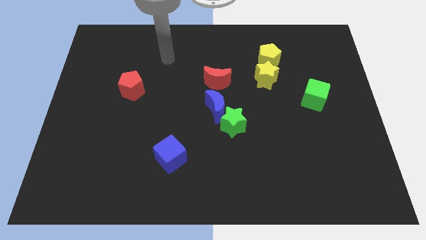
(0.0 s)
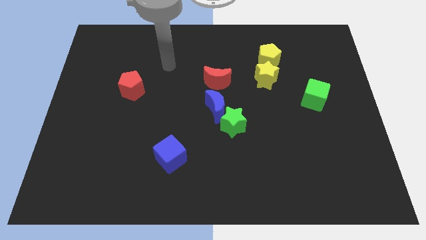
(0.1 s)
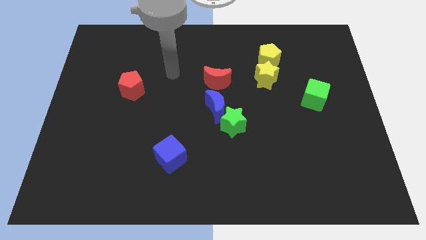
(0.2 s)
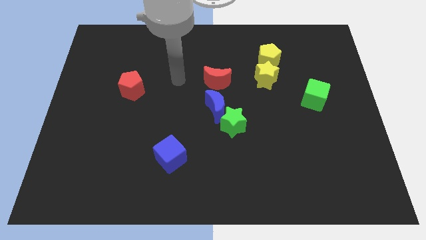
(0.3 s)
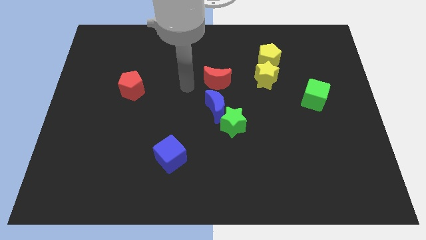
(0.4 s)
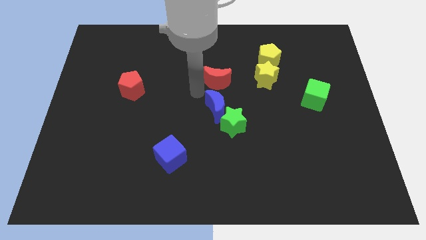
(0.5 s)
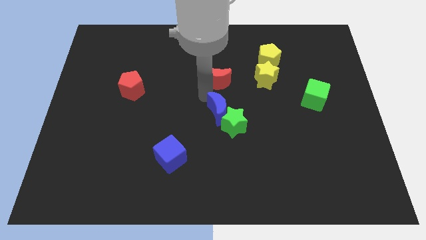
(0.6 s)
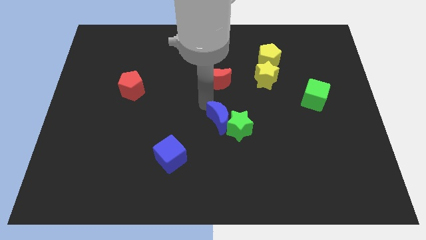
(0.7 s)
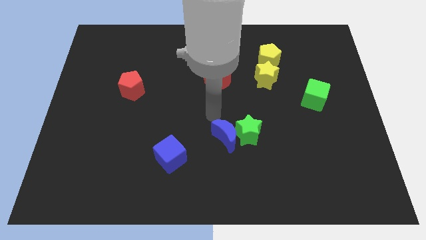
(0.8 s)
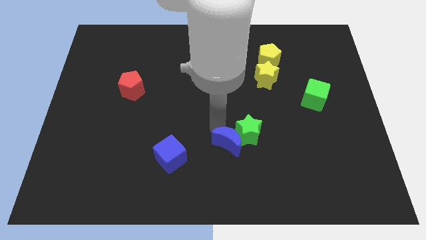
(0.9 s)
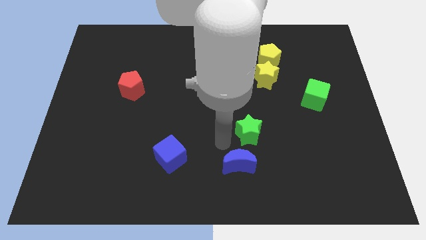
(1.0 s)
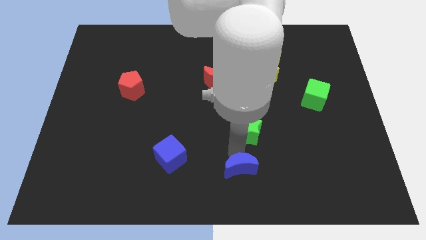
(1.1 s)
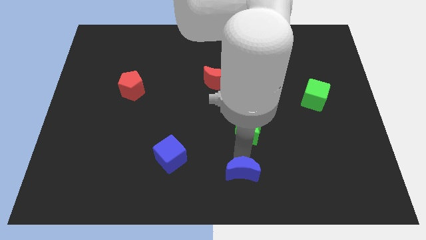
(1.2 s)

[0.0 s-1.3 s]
separate the green star from the blue moon

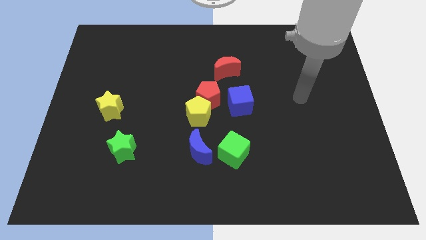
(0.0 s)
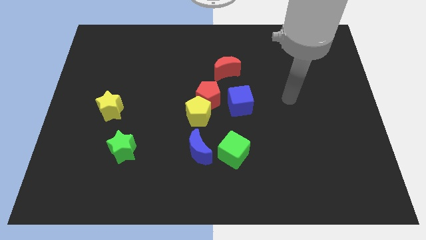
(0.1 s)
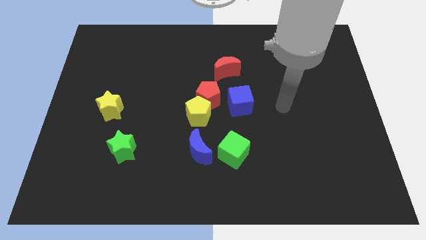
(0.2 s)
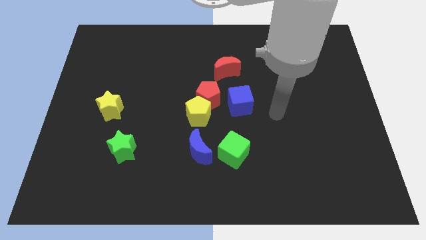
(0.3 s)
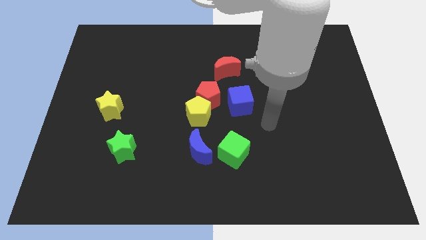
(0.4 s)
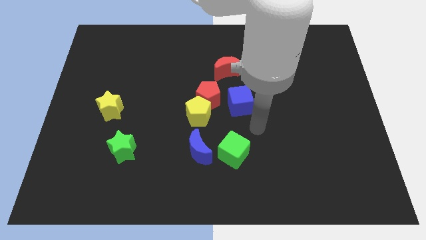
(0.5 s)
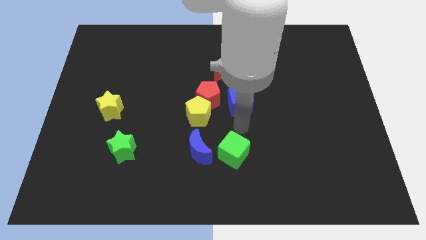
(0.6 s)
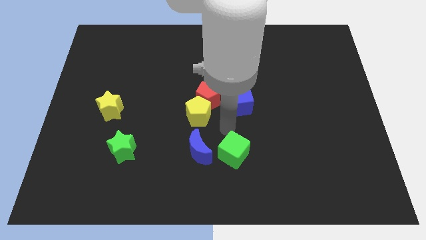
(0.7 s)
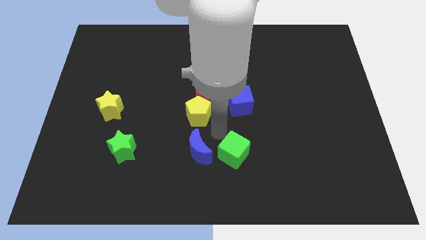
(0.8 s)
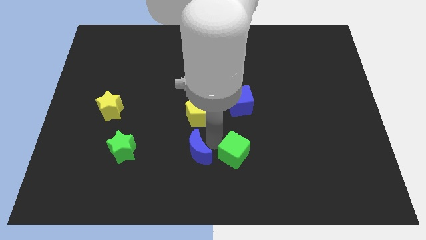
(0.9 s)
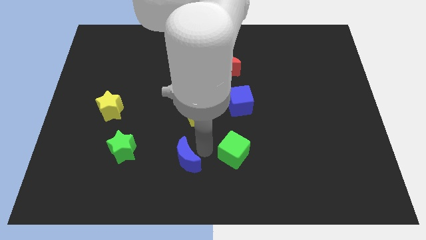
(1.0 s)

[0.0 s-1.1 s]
move the green cube away from the blue moon

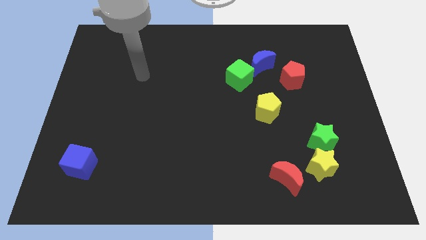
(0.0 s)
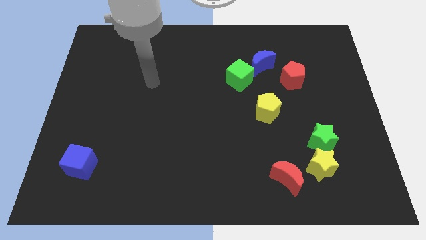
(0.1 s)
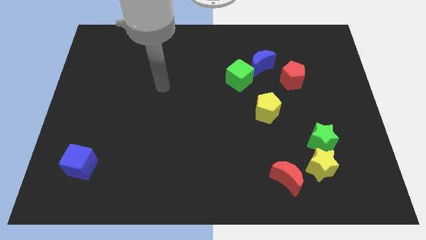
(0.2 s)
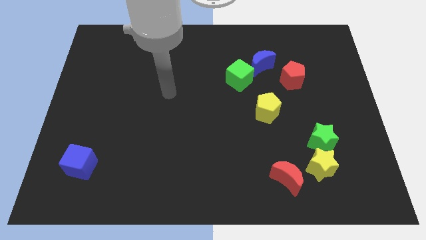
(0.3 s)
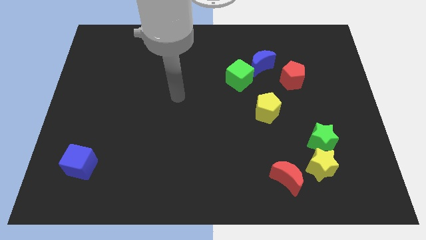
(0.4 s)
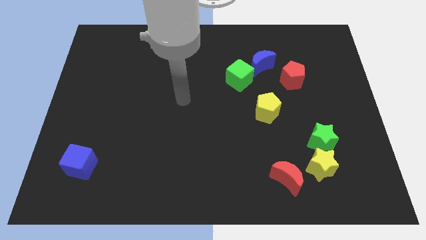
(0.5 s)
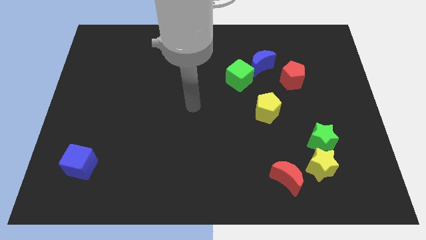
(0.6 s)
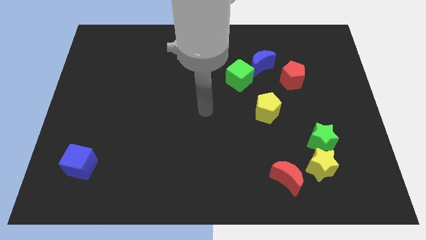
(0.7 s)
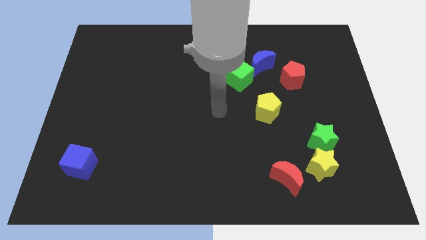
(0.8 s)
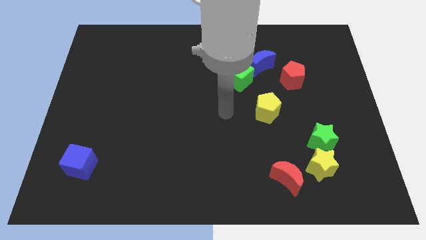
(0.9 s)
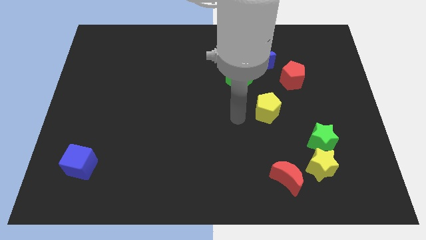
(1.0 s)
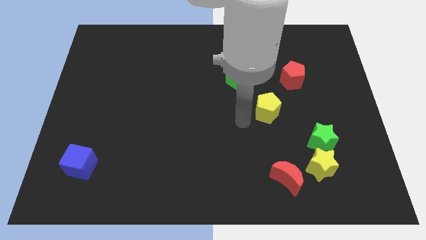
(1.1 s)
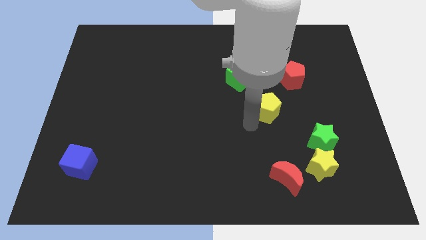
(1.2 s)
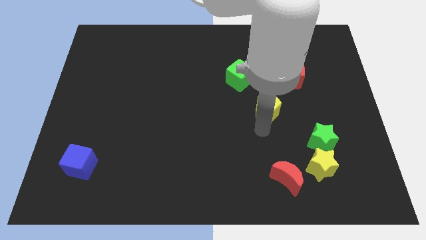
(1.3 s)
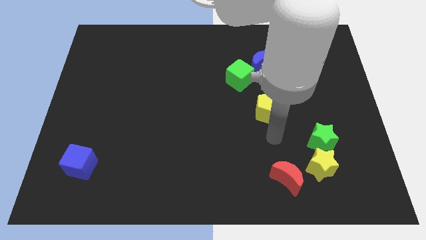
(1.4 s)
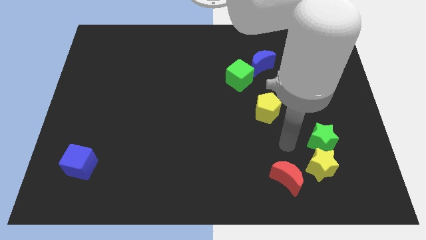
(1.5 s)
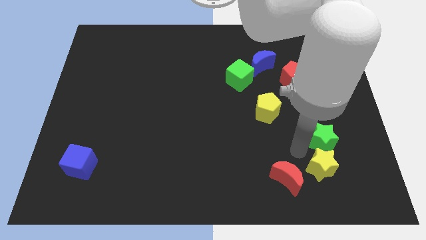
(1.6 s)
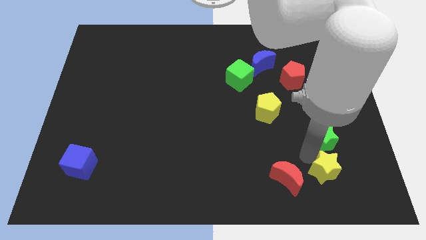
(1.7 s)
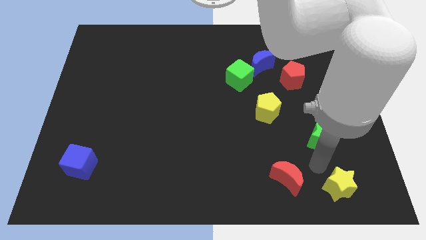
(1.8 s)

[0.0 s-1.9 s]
move the green star away from the yellow star

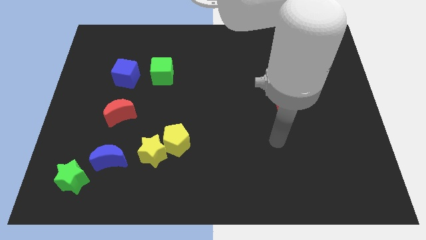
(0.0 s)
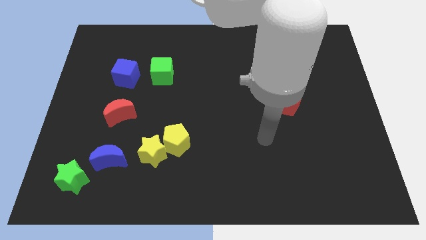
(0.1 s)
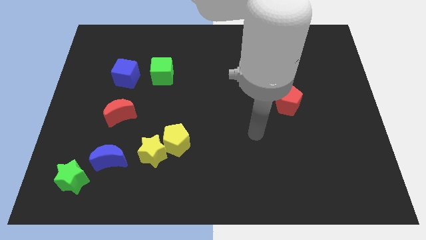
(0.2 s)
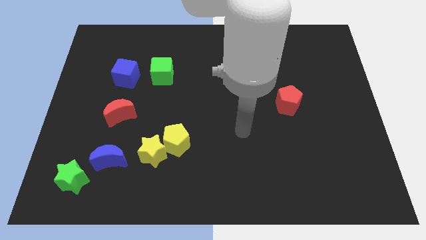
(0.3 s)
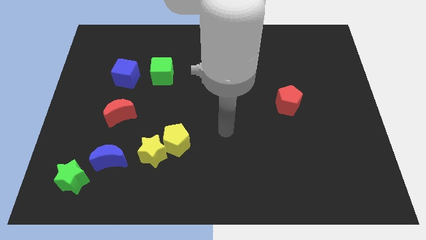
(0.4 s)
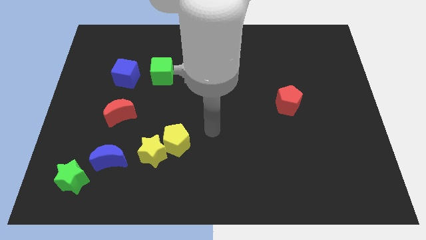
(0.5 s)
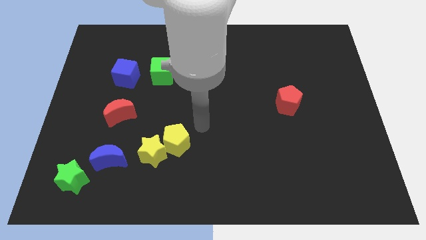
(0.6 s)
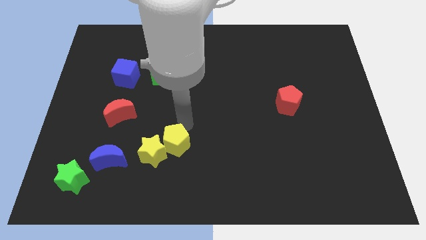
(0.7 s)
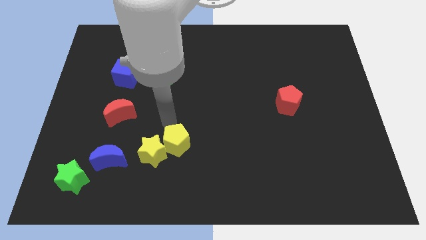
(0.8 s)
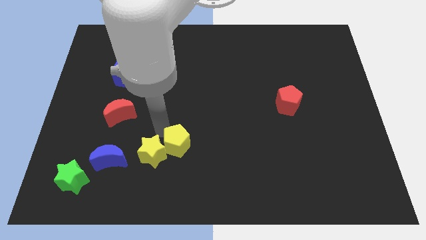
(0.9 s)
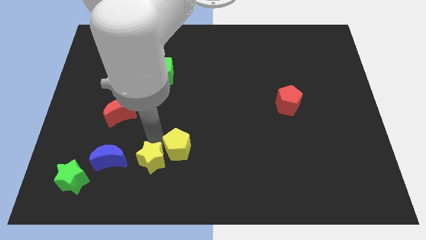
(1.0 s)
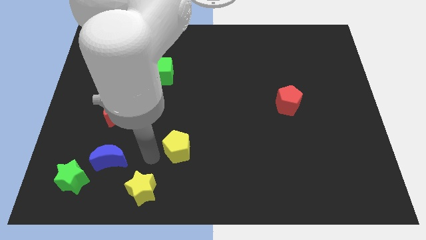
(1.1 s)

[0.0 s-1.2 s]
pull the yellow pentagon apart from the yellow star

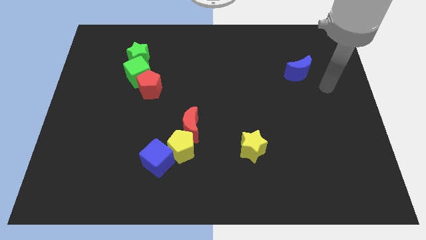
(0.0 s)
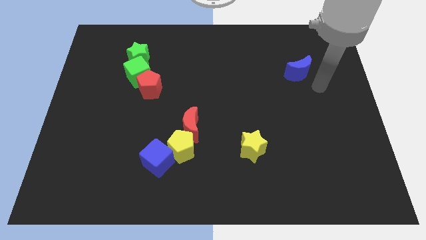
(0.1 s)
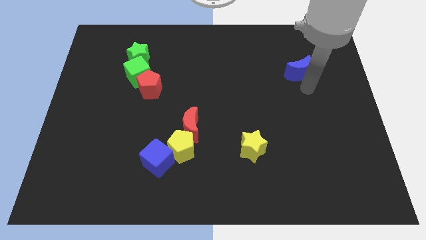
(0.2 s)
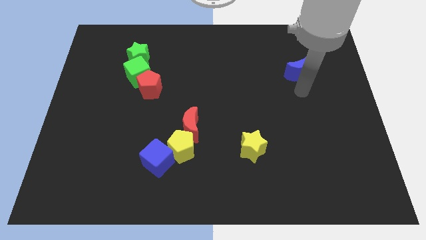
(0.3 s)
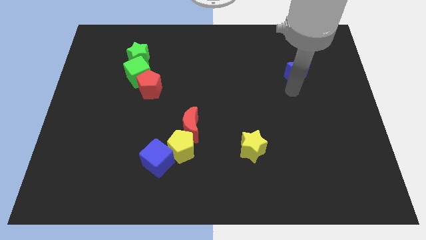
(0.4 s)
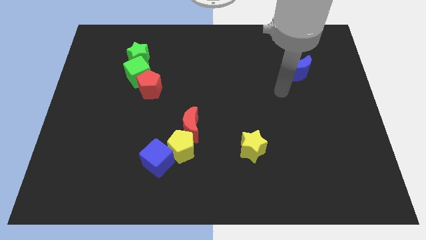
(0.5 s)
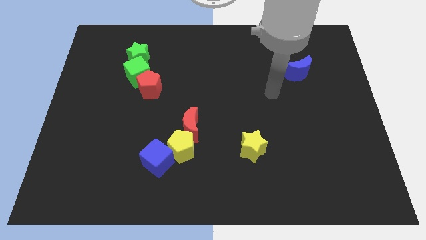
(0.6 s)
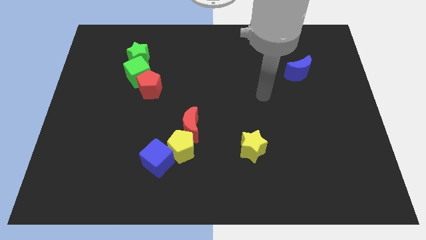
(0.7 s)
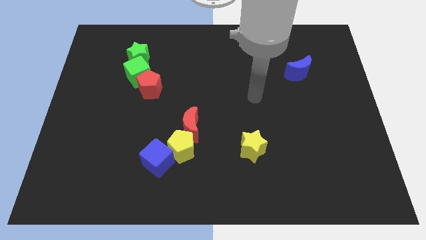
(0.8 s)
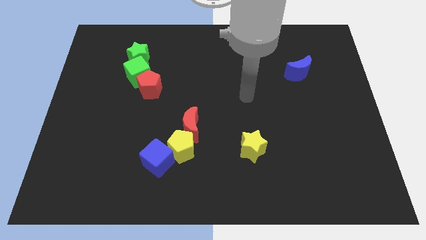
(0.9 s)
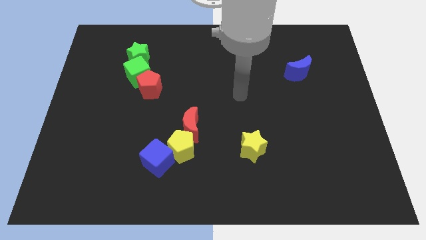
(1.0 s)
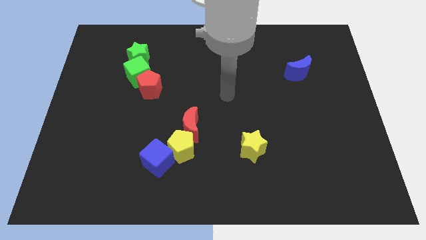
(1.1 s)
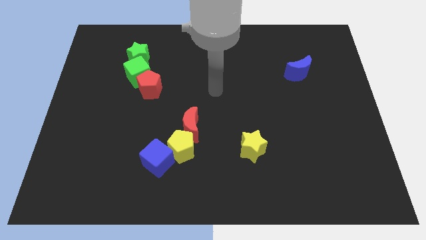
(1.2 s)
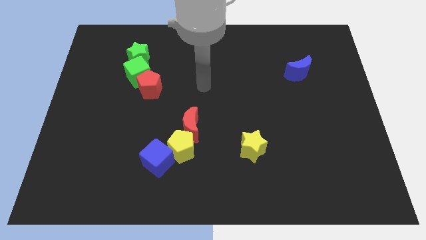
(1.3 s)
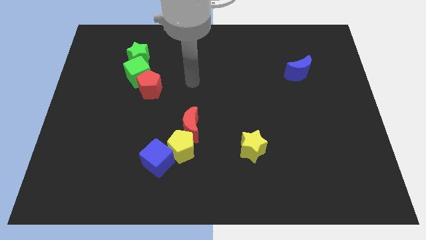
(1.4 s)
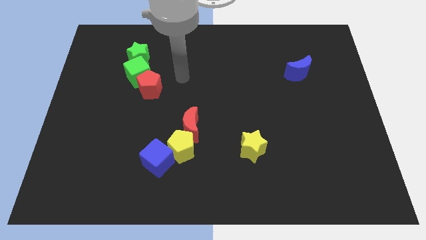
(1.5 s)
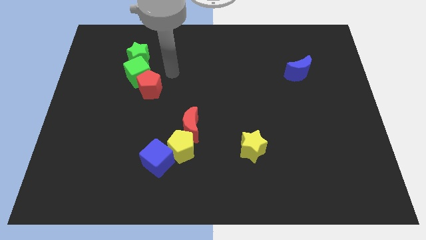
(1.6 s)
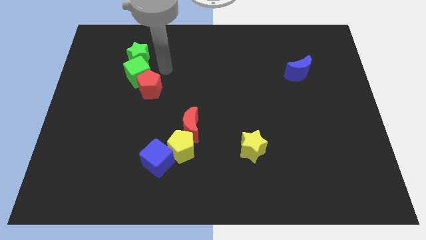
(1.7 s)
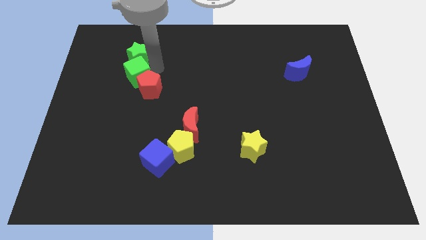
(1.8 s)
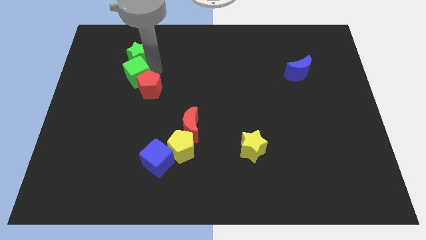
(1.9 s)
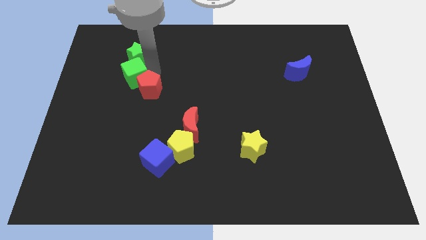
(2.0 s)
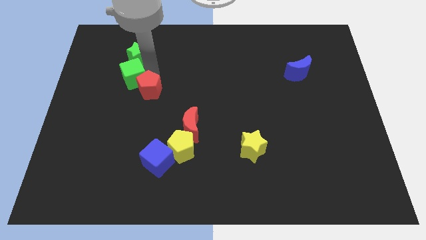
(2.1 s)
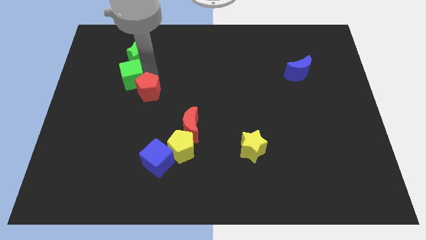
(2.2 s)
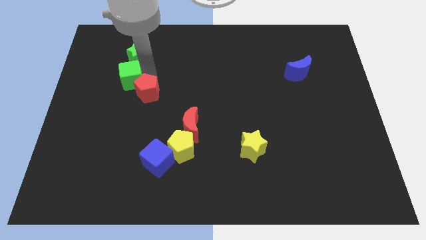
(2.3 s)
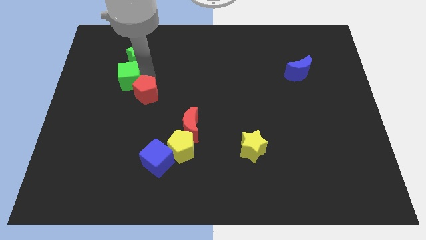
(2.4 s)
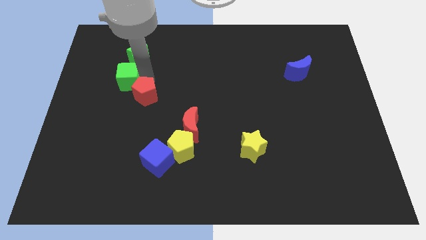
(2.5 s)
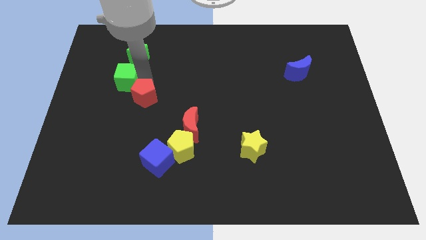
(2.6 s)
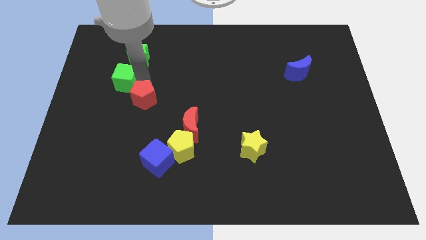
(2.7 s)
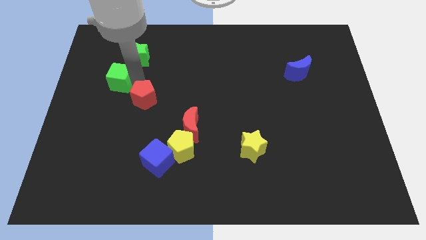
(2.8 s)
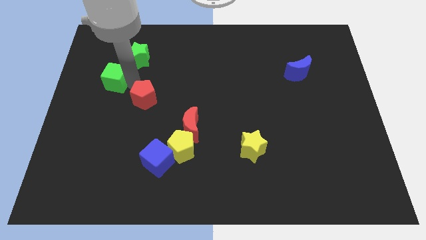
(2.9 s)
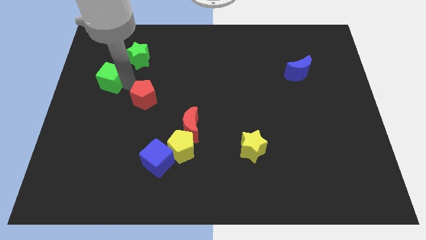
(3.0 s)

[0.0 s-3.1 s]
separate the red pentagon from the green cube

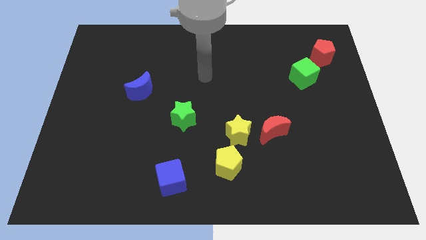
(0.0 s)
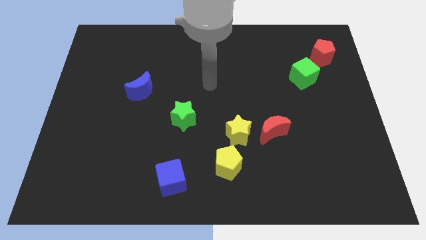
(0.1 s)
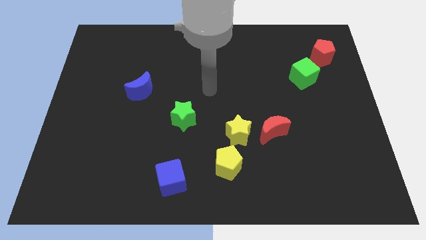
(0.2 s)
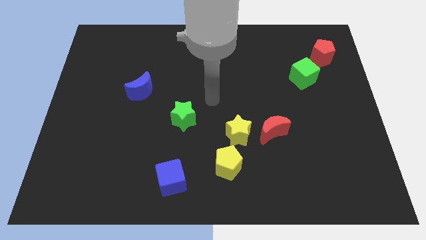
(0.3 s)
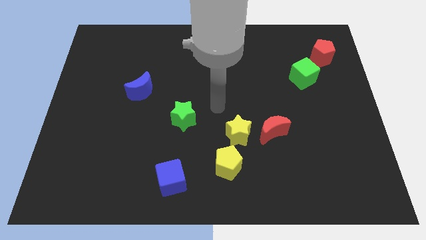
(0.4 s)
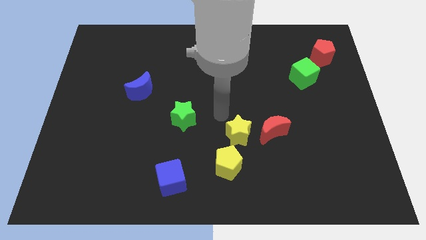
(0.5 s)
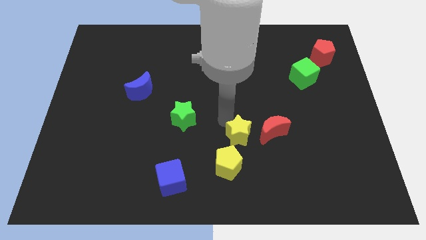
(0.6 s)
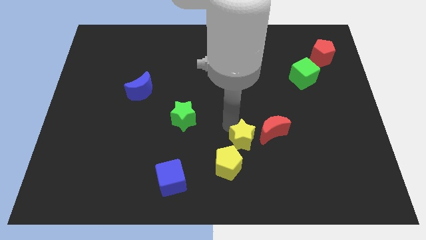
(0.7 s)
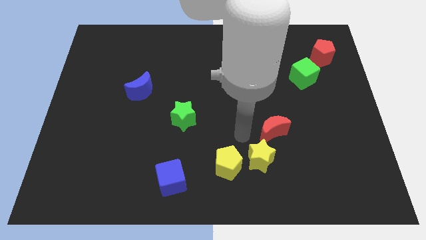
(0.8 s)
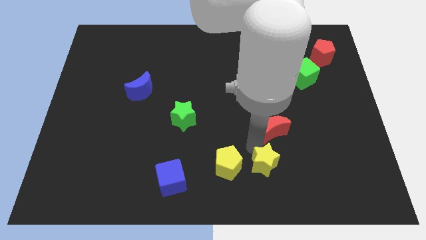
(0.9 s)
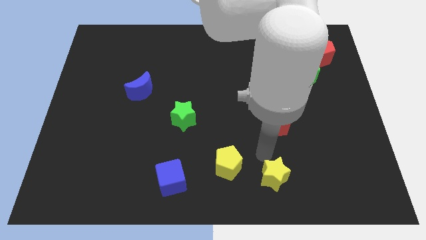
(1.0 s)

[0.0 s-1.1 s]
move the red moon away from the yellow star
